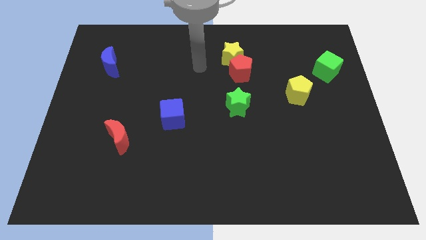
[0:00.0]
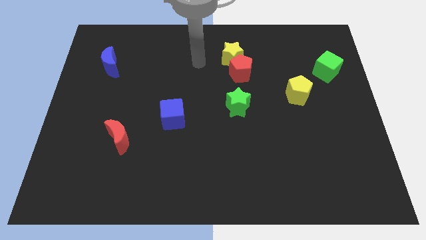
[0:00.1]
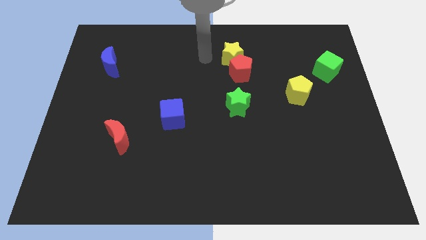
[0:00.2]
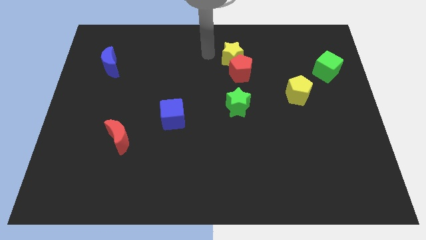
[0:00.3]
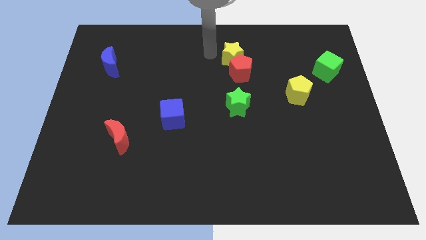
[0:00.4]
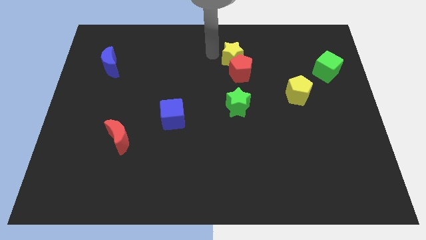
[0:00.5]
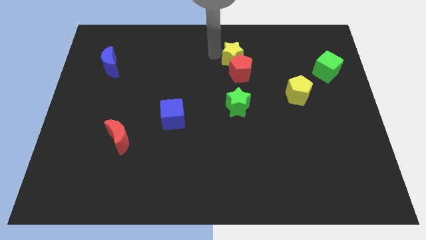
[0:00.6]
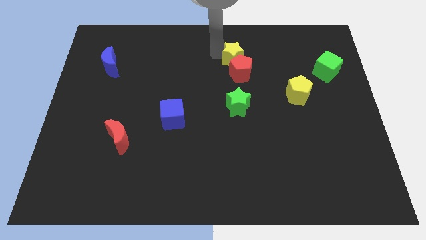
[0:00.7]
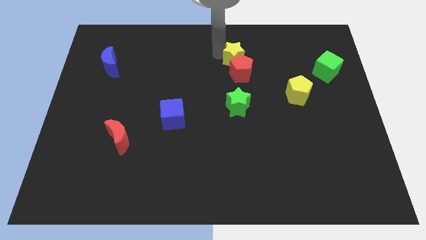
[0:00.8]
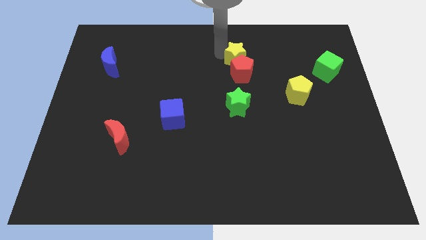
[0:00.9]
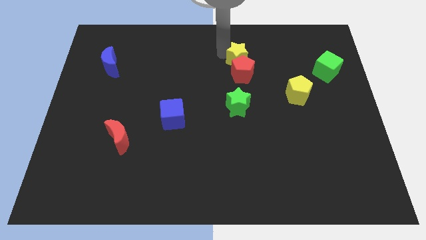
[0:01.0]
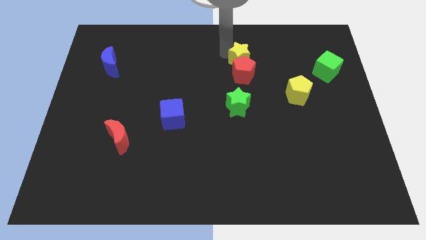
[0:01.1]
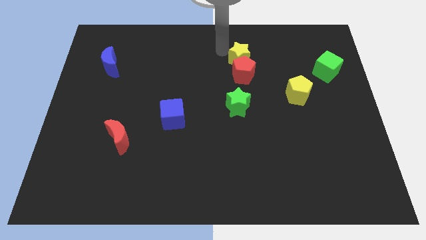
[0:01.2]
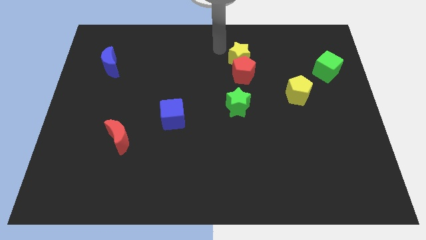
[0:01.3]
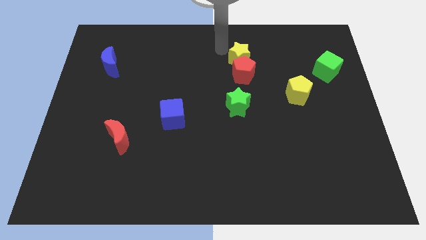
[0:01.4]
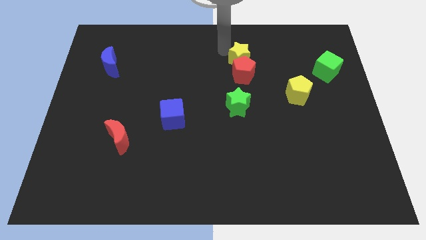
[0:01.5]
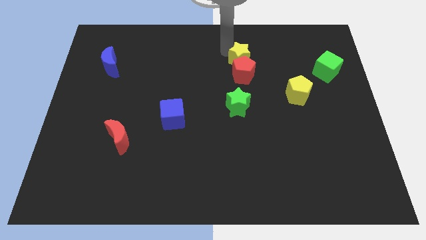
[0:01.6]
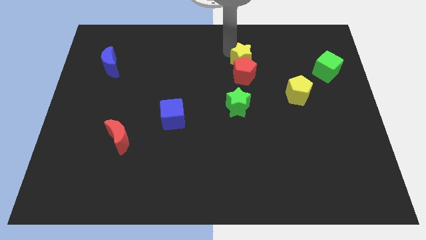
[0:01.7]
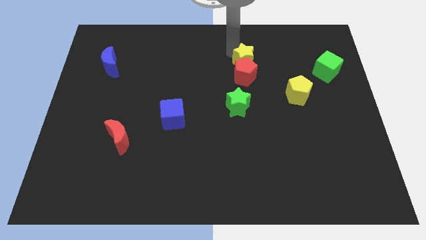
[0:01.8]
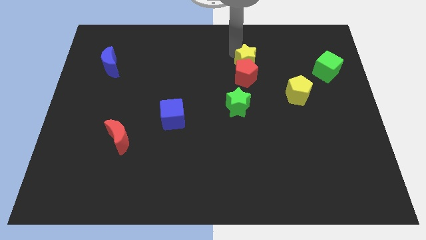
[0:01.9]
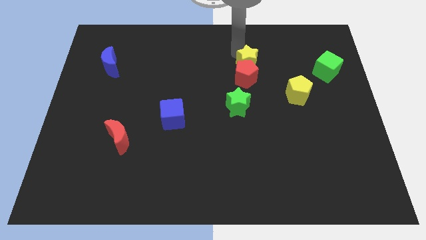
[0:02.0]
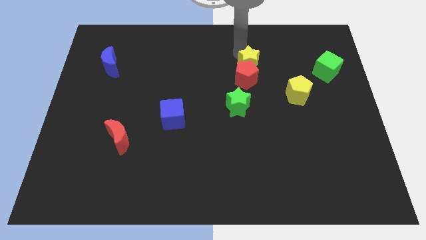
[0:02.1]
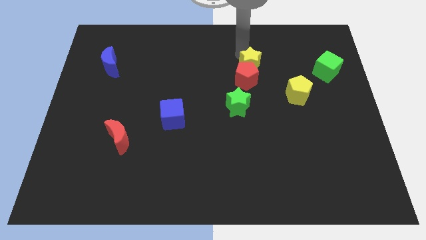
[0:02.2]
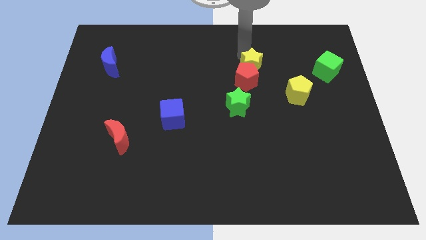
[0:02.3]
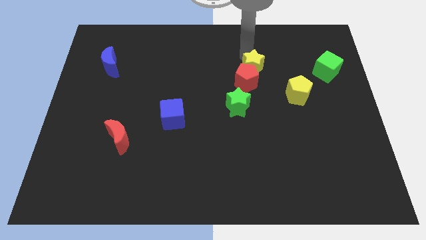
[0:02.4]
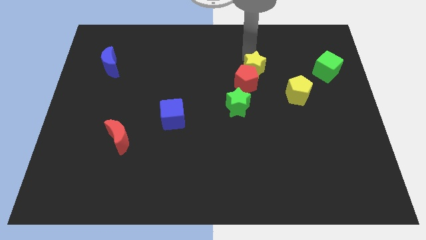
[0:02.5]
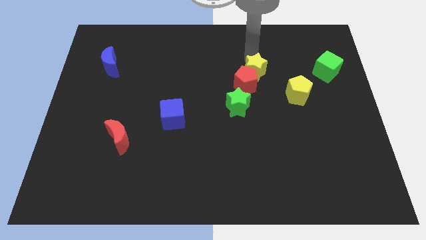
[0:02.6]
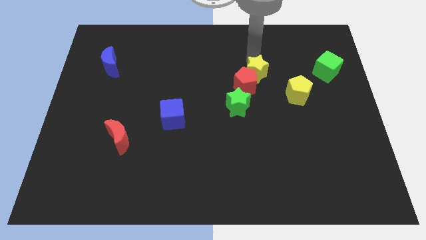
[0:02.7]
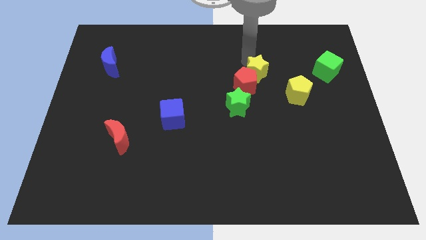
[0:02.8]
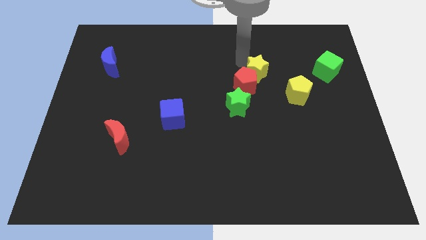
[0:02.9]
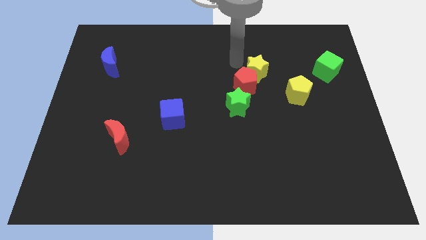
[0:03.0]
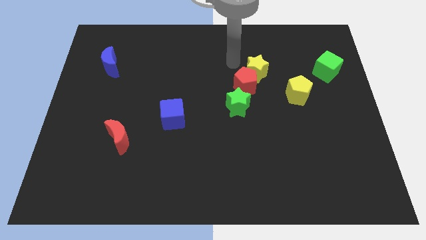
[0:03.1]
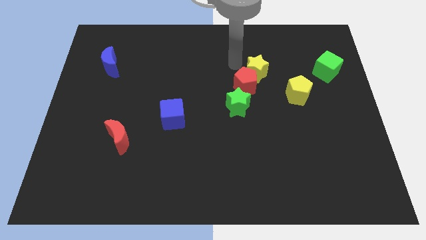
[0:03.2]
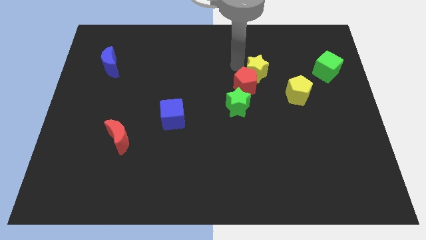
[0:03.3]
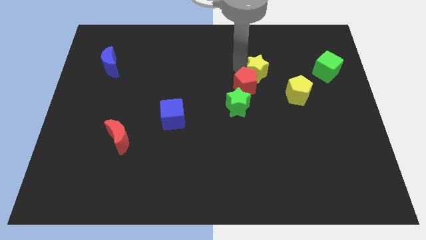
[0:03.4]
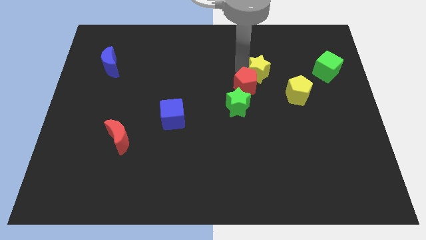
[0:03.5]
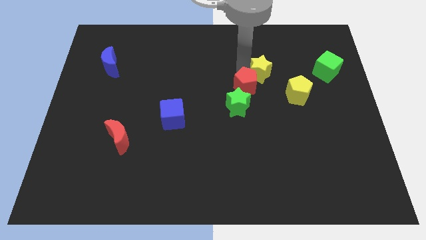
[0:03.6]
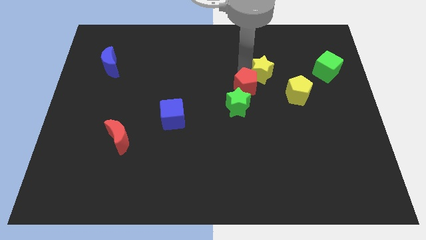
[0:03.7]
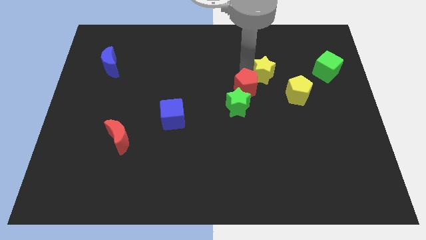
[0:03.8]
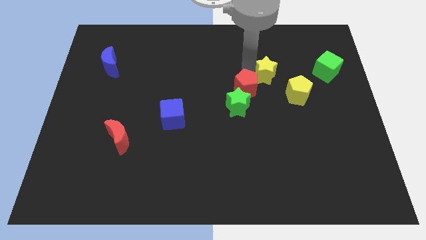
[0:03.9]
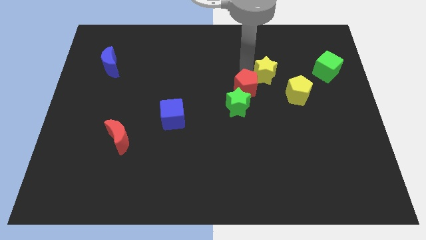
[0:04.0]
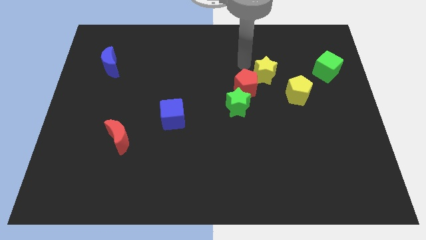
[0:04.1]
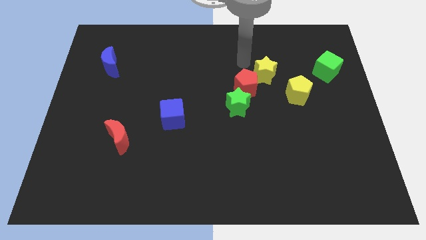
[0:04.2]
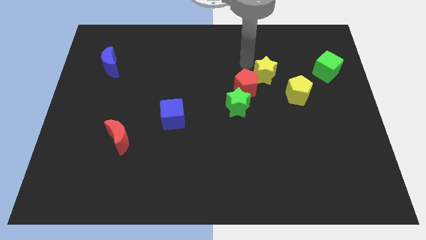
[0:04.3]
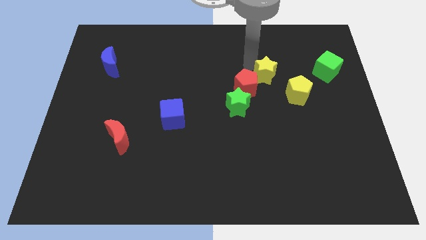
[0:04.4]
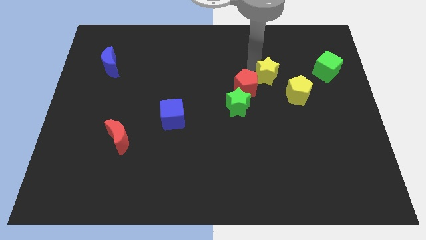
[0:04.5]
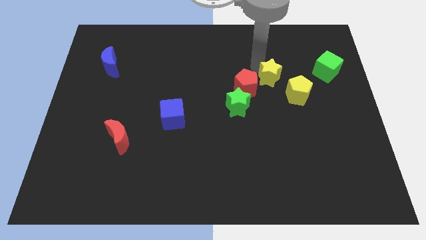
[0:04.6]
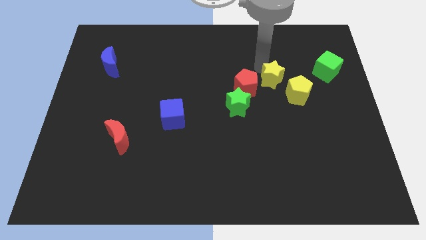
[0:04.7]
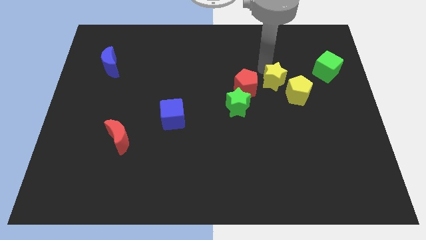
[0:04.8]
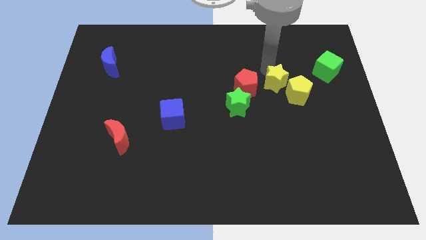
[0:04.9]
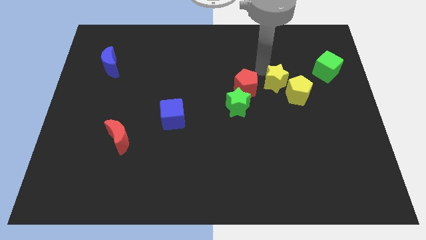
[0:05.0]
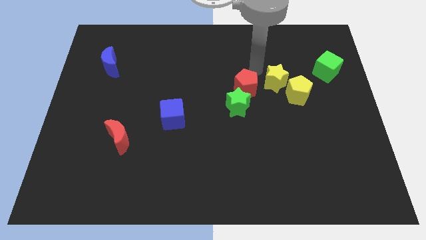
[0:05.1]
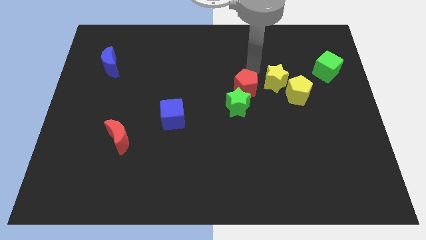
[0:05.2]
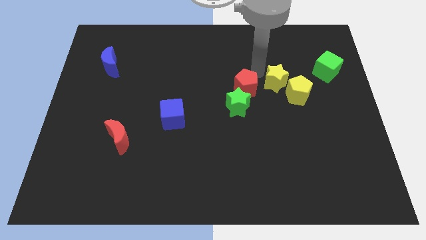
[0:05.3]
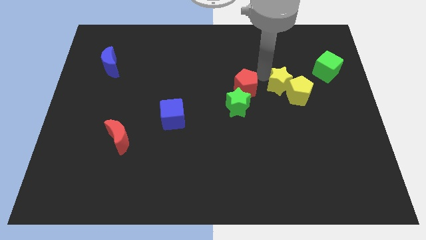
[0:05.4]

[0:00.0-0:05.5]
push the yellow star close to the yellow pentagon

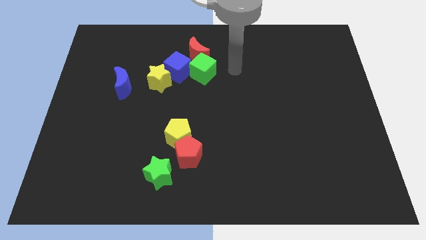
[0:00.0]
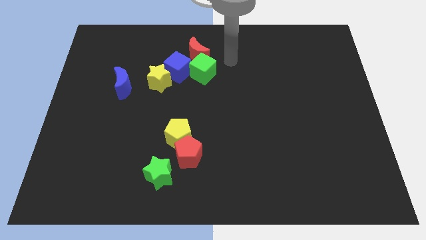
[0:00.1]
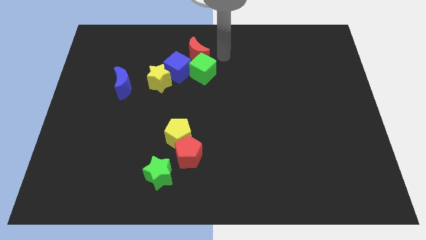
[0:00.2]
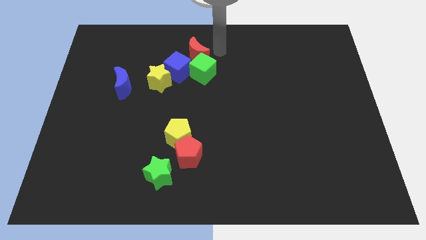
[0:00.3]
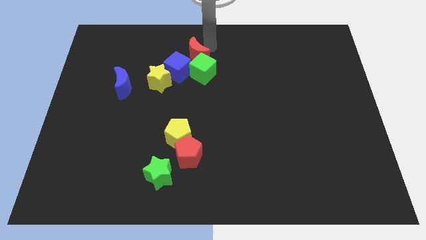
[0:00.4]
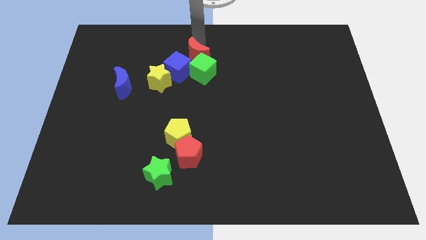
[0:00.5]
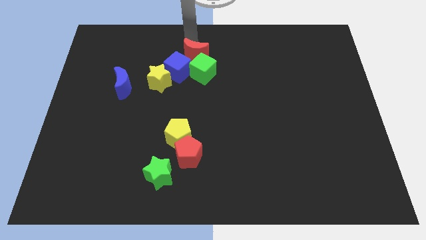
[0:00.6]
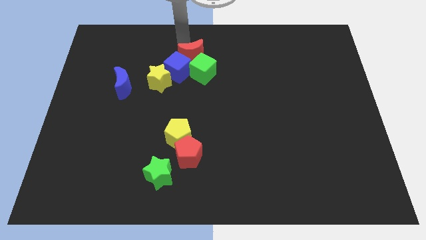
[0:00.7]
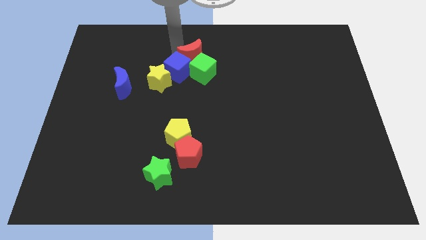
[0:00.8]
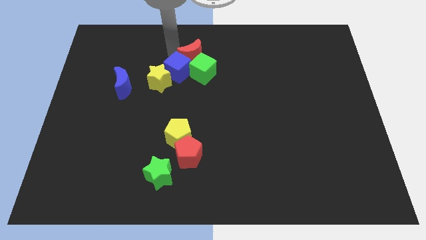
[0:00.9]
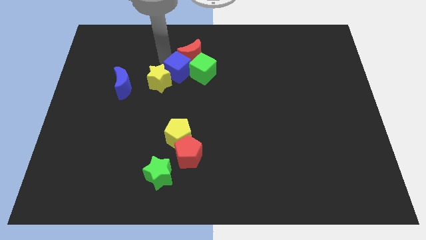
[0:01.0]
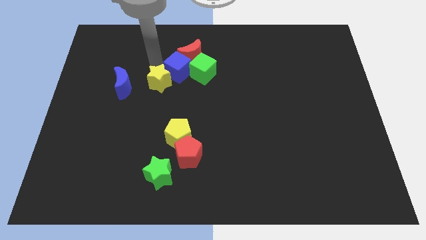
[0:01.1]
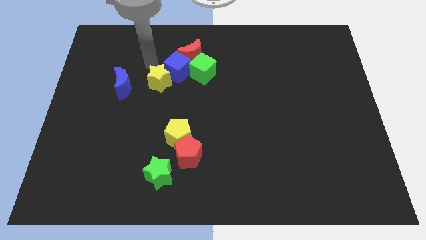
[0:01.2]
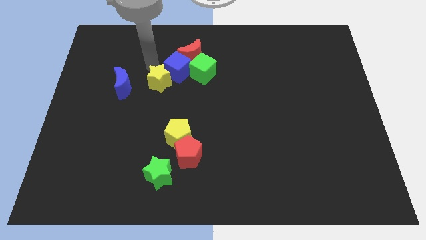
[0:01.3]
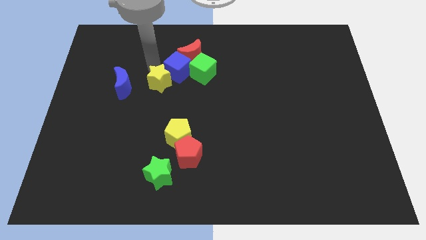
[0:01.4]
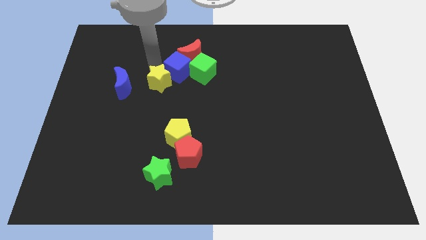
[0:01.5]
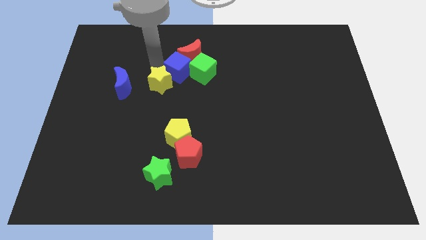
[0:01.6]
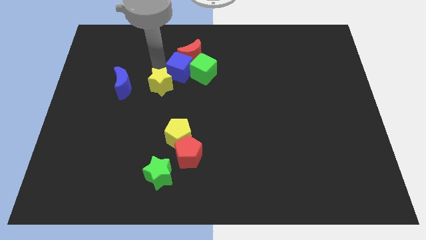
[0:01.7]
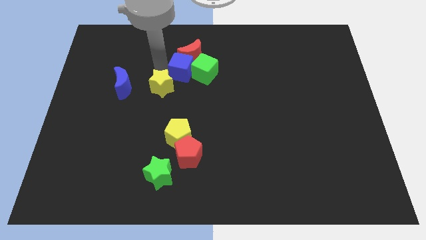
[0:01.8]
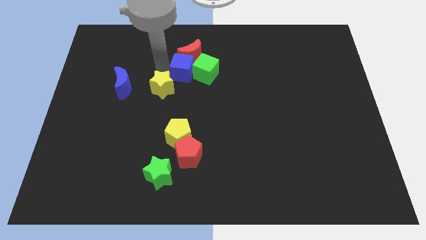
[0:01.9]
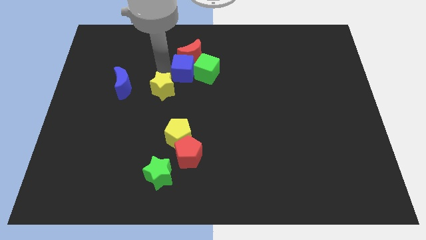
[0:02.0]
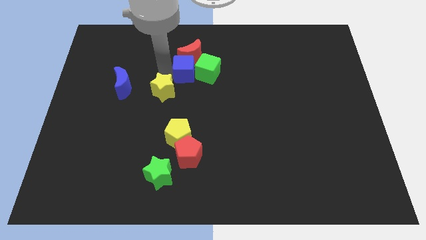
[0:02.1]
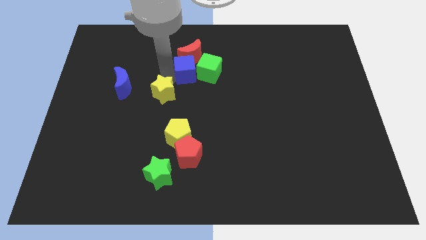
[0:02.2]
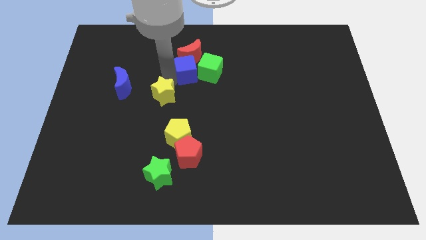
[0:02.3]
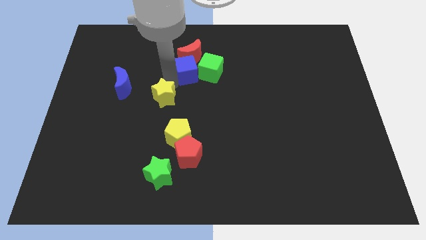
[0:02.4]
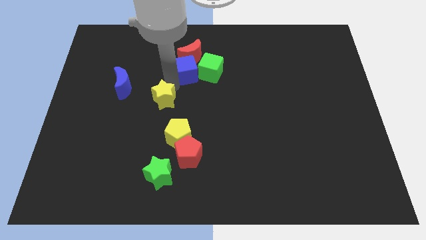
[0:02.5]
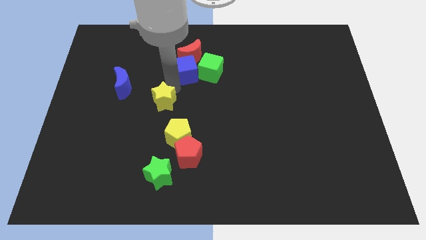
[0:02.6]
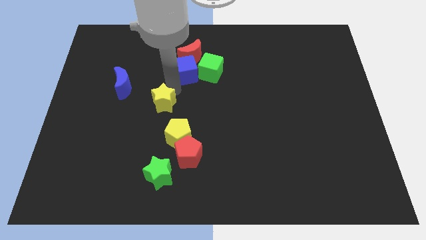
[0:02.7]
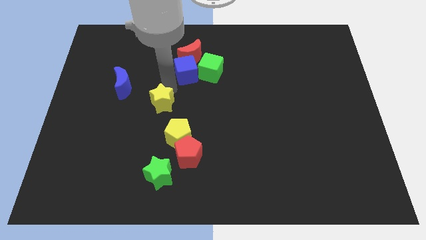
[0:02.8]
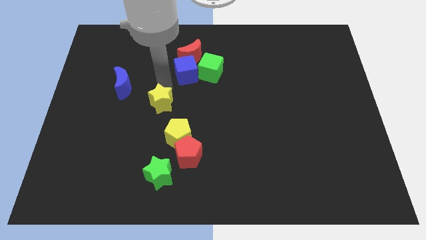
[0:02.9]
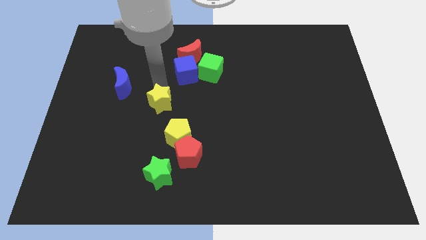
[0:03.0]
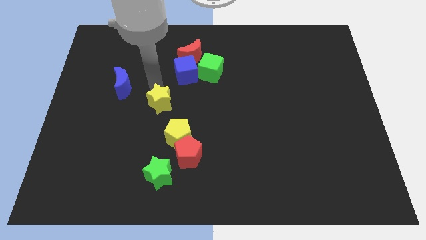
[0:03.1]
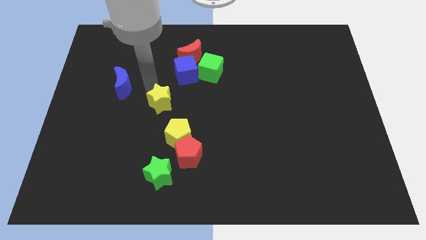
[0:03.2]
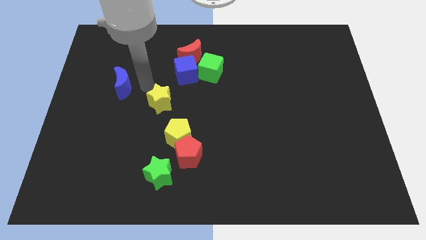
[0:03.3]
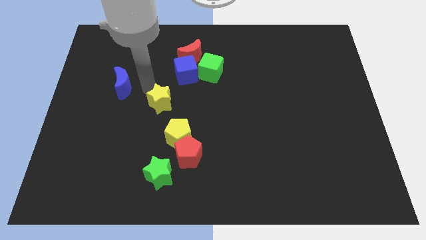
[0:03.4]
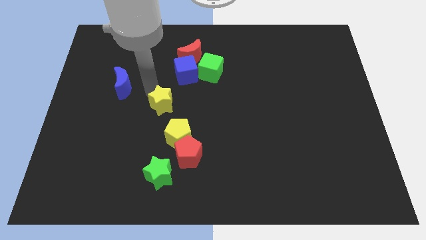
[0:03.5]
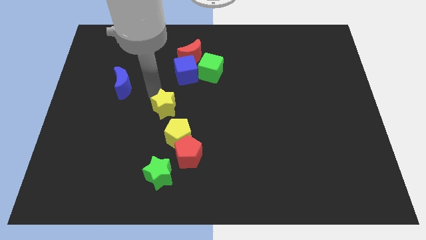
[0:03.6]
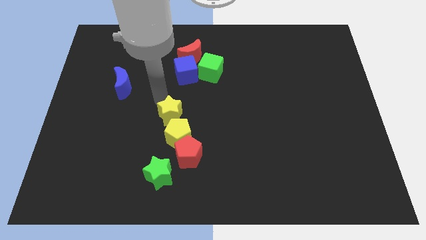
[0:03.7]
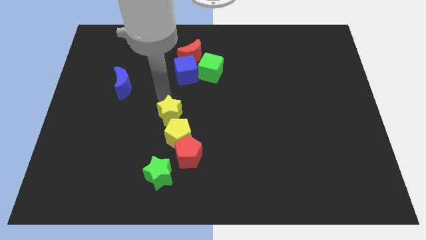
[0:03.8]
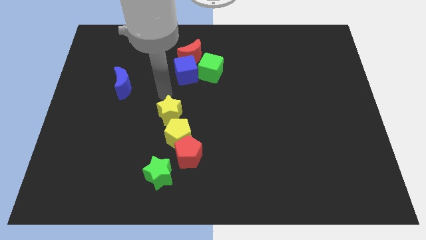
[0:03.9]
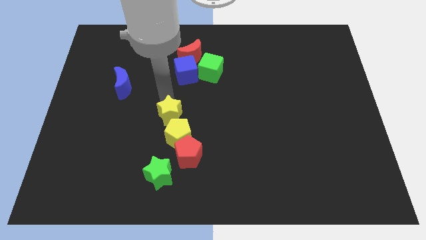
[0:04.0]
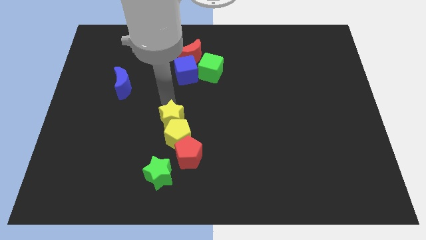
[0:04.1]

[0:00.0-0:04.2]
push the yellow star to the yellow pentagon
